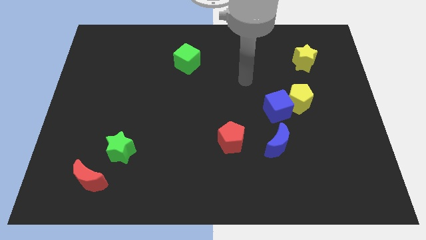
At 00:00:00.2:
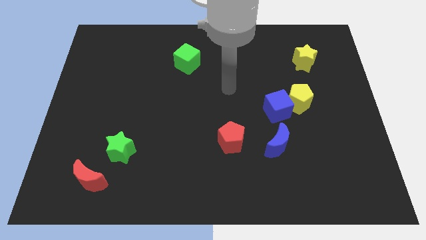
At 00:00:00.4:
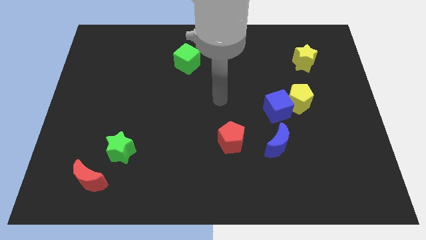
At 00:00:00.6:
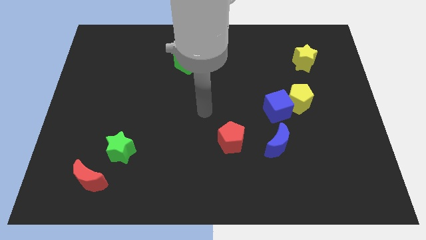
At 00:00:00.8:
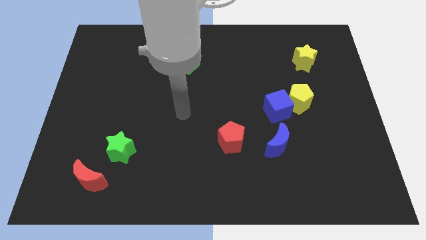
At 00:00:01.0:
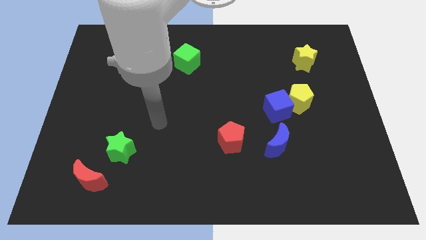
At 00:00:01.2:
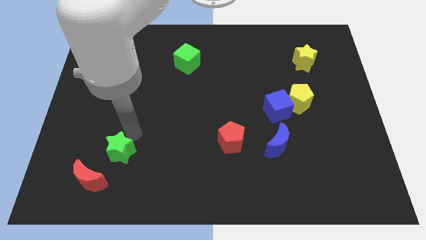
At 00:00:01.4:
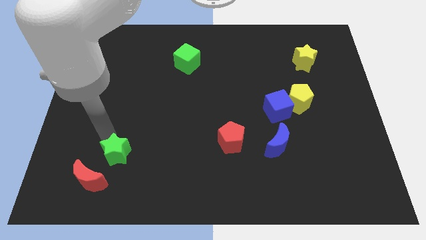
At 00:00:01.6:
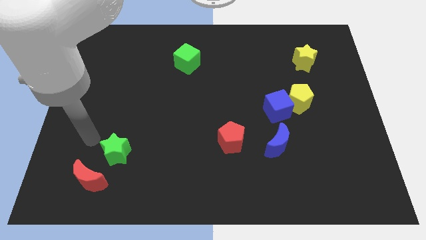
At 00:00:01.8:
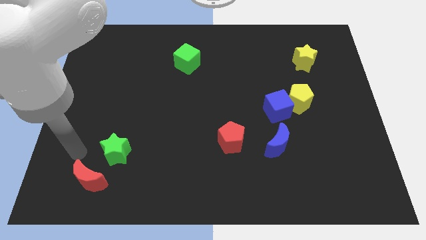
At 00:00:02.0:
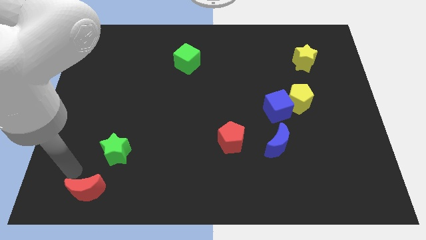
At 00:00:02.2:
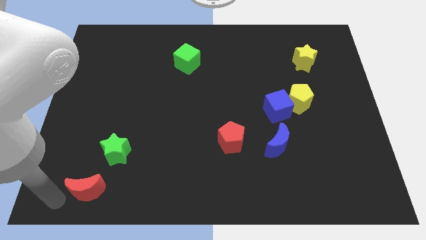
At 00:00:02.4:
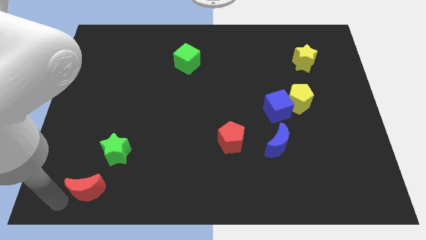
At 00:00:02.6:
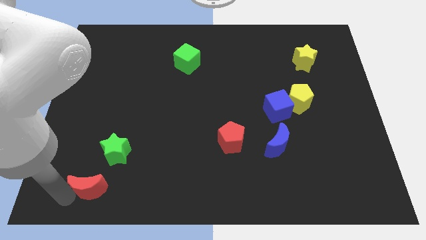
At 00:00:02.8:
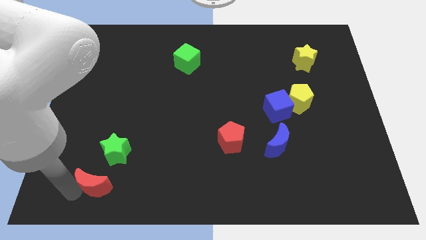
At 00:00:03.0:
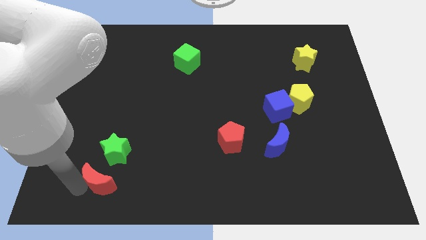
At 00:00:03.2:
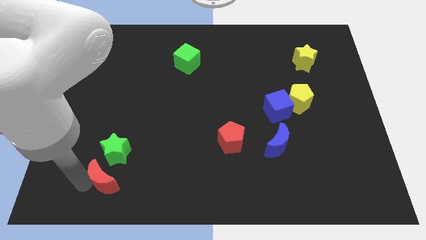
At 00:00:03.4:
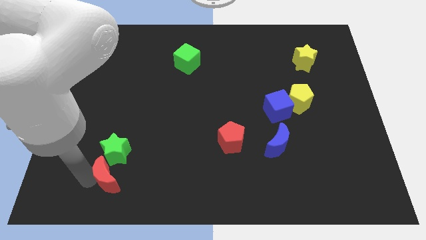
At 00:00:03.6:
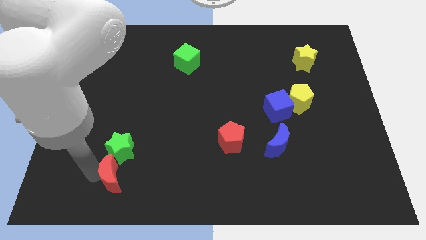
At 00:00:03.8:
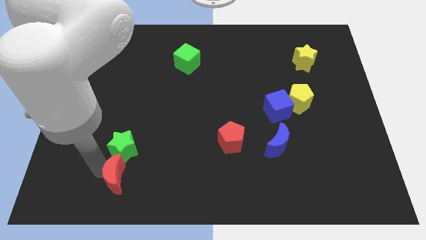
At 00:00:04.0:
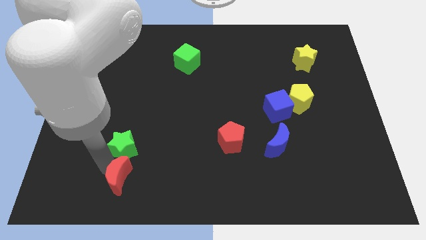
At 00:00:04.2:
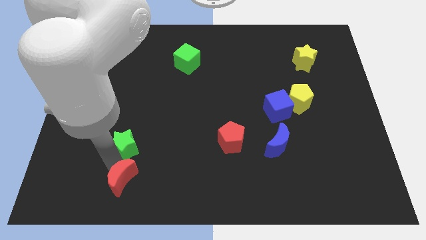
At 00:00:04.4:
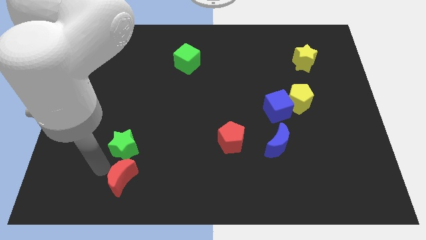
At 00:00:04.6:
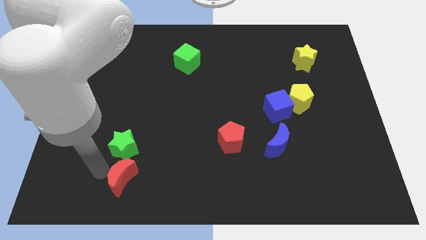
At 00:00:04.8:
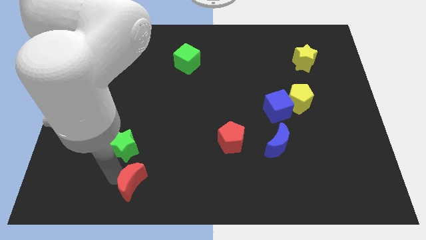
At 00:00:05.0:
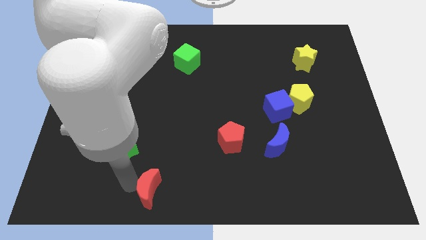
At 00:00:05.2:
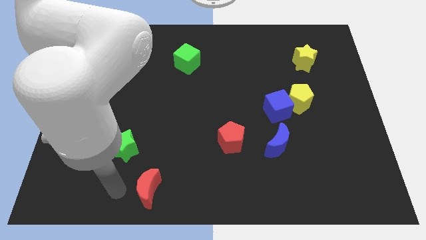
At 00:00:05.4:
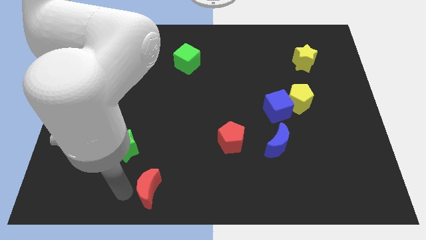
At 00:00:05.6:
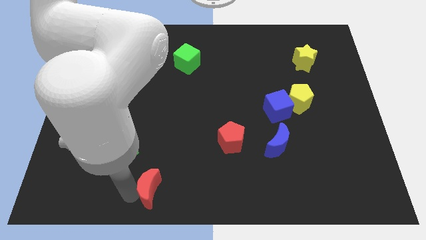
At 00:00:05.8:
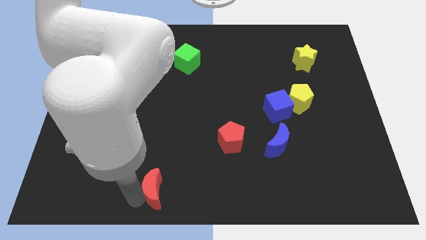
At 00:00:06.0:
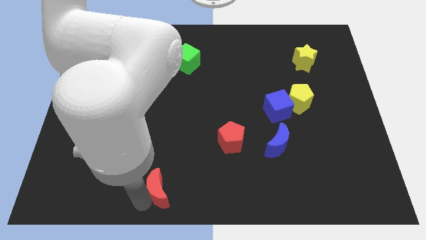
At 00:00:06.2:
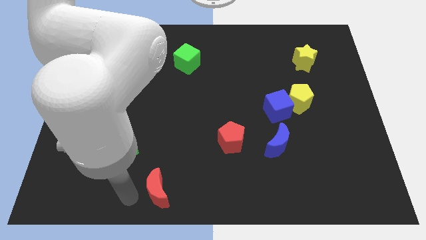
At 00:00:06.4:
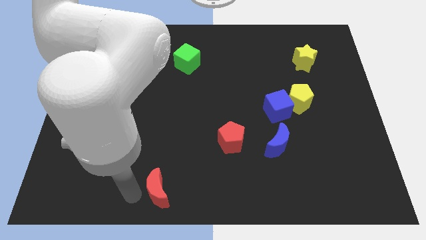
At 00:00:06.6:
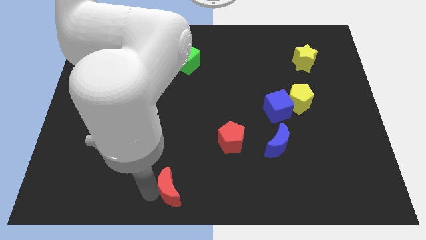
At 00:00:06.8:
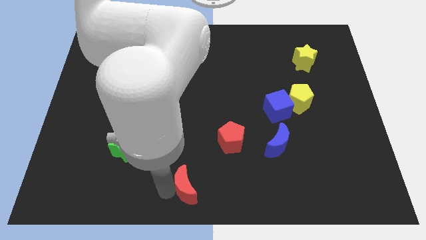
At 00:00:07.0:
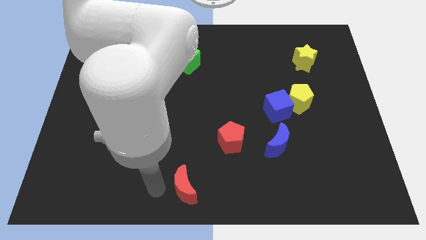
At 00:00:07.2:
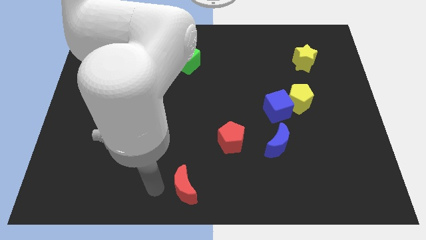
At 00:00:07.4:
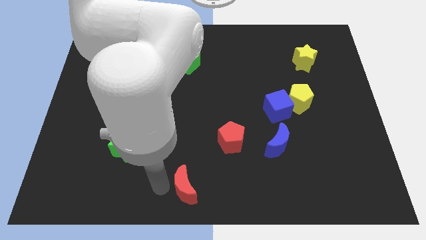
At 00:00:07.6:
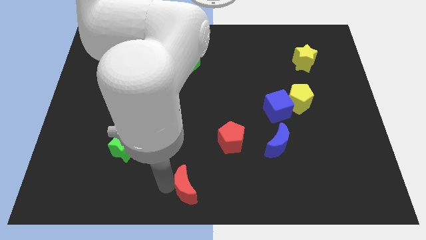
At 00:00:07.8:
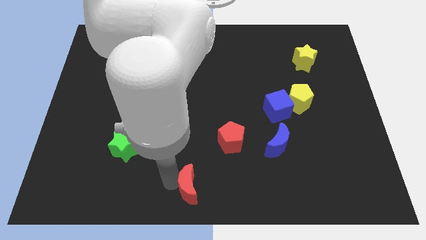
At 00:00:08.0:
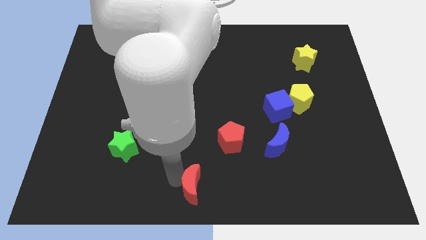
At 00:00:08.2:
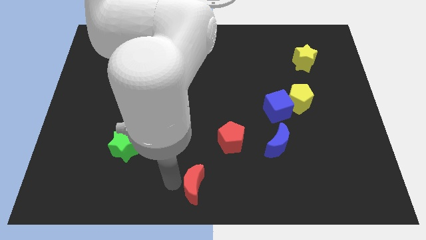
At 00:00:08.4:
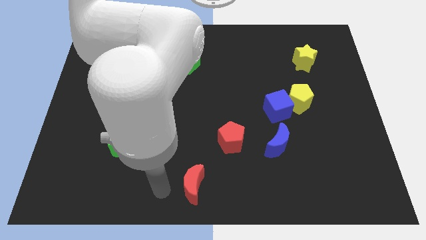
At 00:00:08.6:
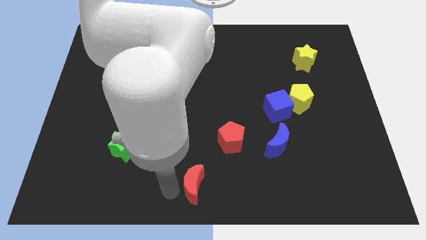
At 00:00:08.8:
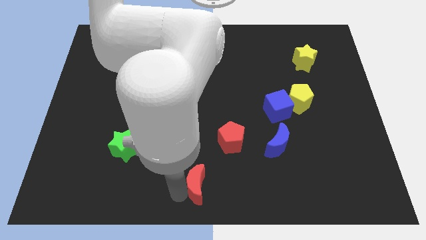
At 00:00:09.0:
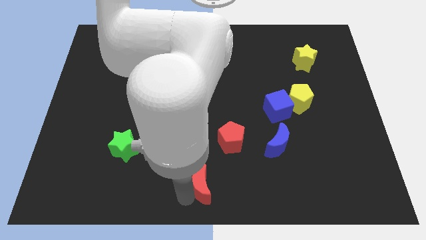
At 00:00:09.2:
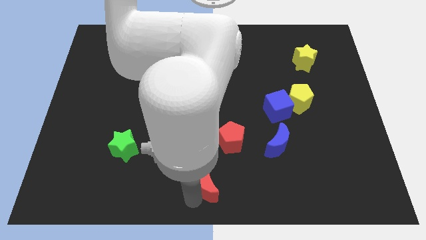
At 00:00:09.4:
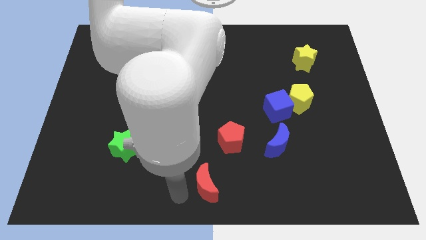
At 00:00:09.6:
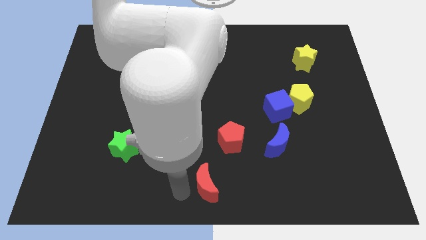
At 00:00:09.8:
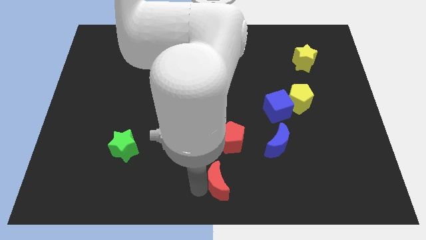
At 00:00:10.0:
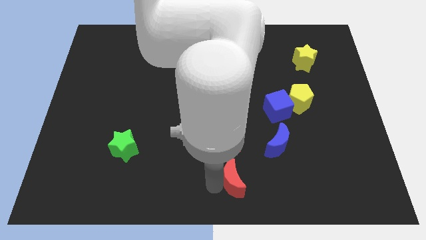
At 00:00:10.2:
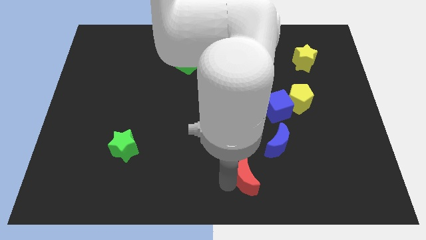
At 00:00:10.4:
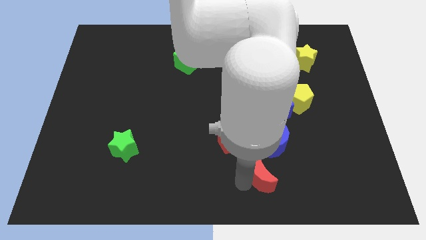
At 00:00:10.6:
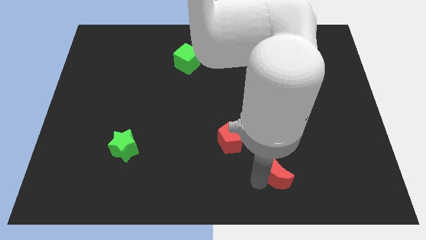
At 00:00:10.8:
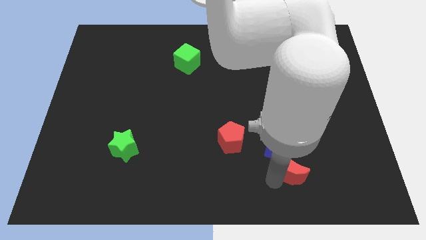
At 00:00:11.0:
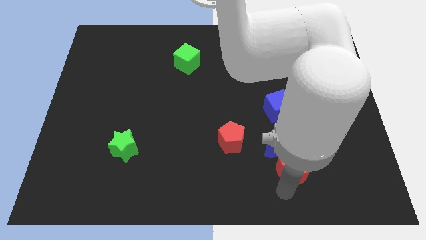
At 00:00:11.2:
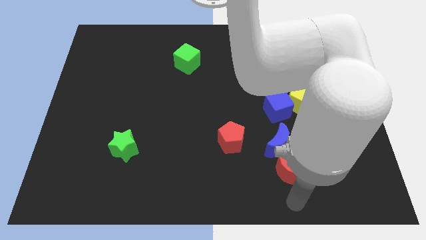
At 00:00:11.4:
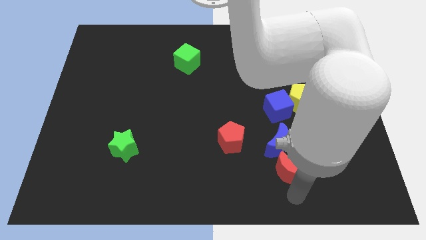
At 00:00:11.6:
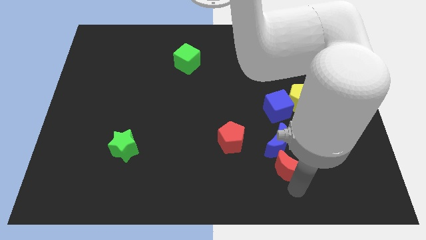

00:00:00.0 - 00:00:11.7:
put the red moon to the bottom of the blue cube

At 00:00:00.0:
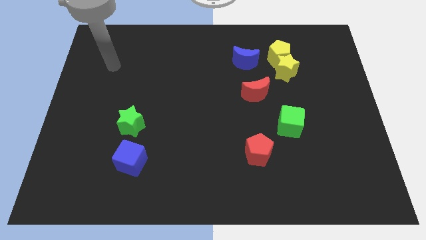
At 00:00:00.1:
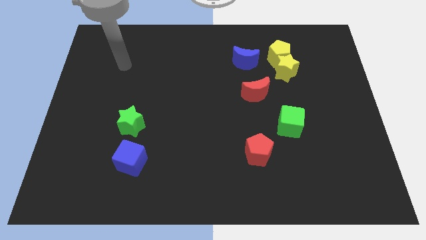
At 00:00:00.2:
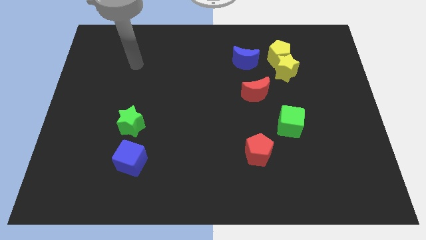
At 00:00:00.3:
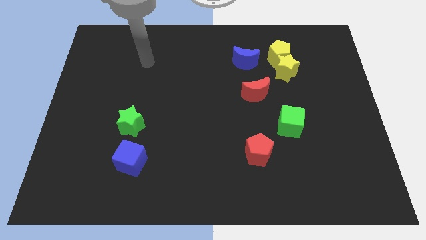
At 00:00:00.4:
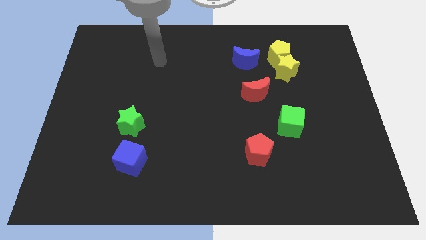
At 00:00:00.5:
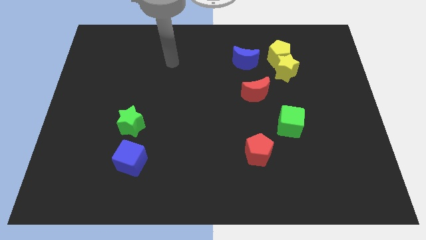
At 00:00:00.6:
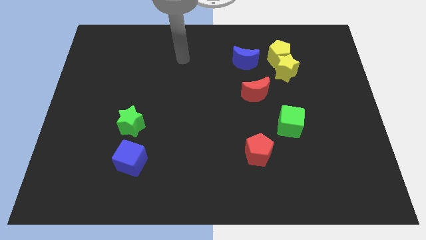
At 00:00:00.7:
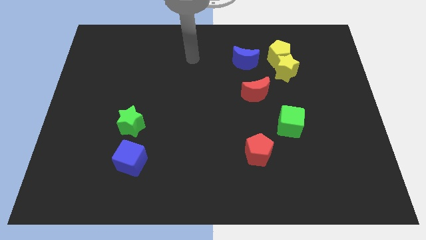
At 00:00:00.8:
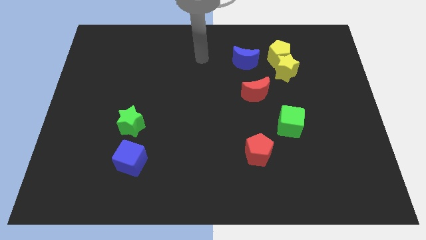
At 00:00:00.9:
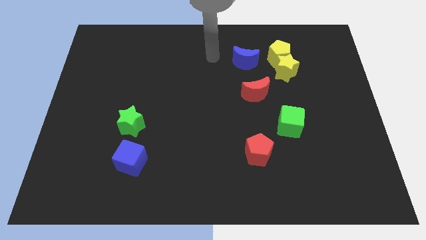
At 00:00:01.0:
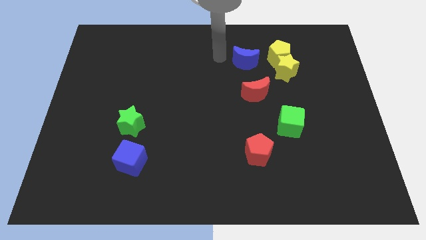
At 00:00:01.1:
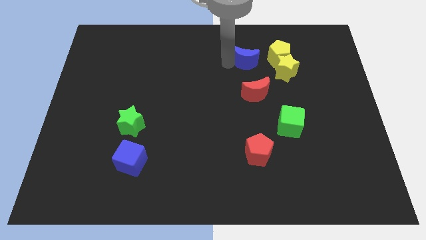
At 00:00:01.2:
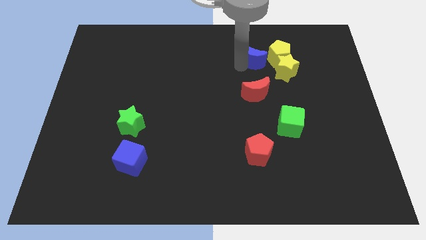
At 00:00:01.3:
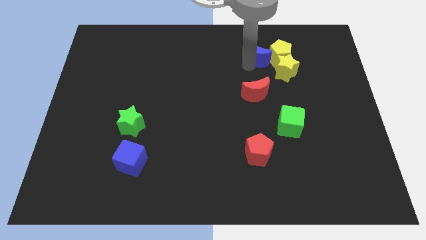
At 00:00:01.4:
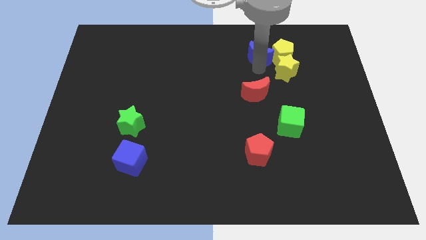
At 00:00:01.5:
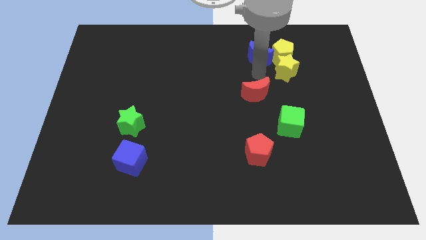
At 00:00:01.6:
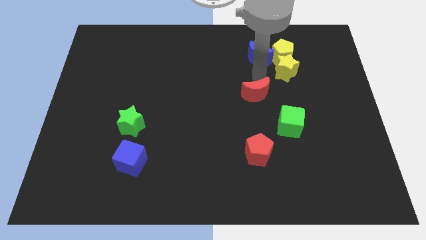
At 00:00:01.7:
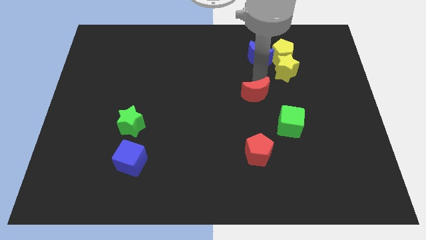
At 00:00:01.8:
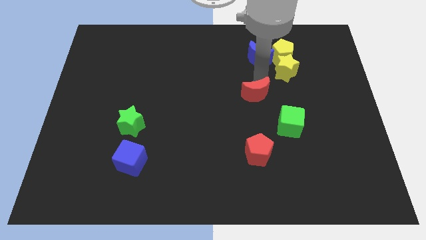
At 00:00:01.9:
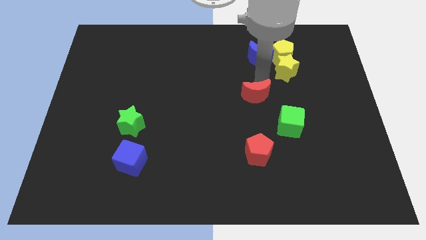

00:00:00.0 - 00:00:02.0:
slide the red moon above the red pentagon
